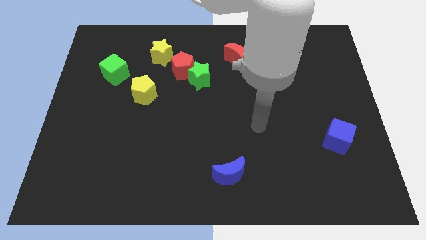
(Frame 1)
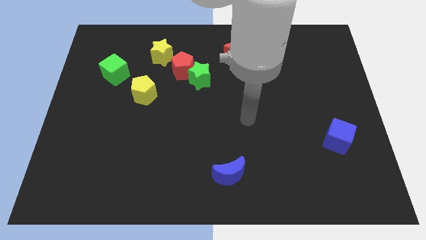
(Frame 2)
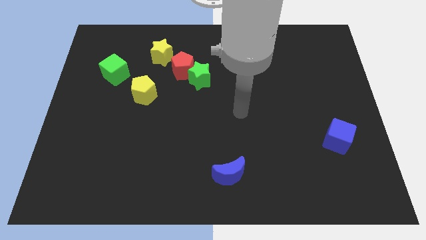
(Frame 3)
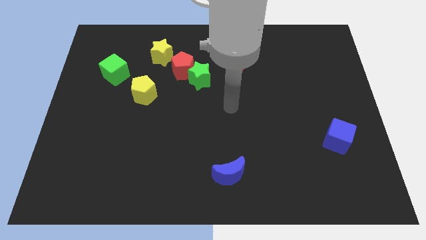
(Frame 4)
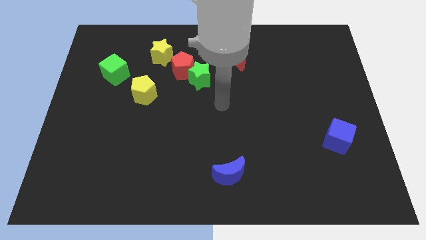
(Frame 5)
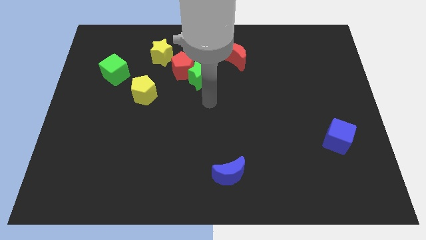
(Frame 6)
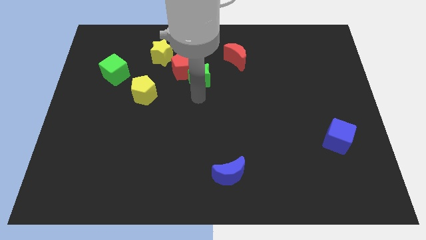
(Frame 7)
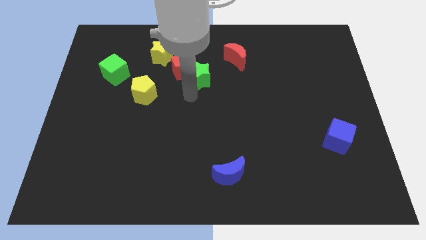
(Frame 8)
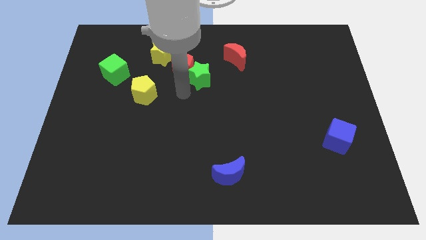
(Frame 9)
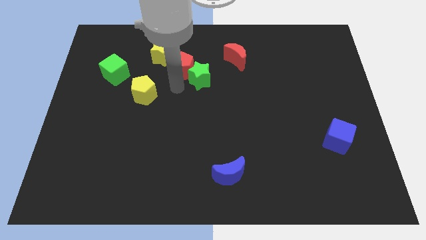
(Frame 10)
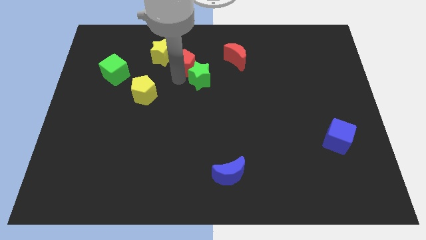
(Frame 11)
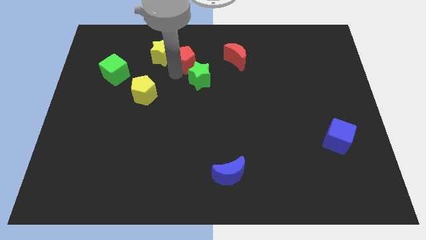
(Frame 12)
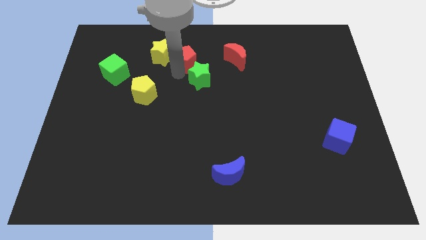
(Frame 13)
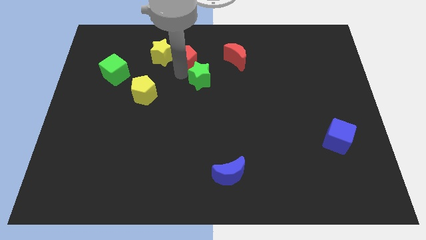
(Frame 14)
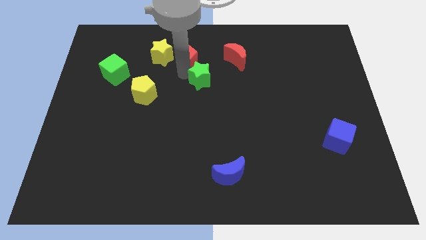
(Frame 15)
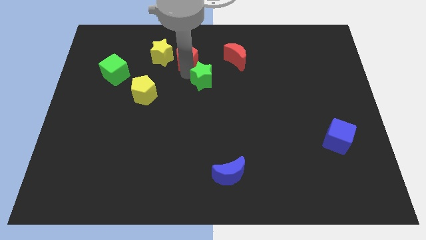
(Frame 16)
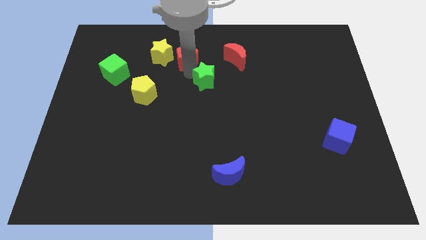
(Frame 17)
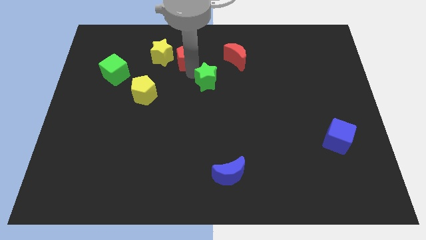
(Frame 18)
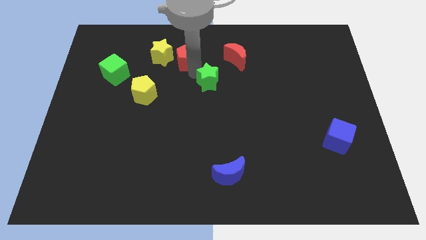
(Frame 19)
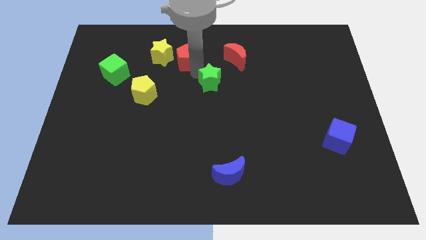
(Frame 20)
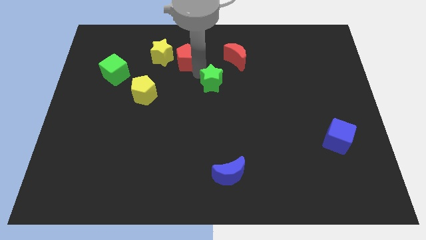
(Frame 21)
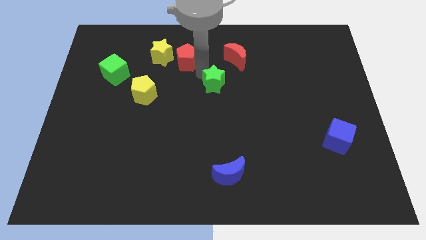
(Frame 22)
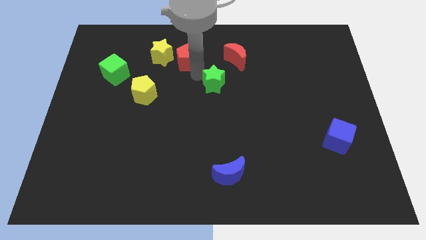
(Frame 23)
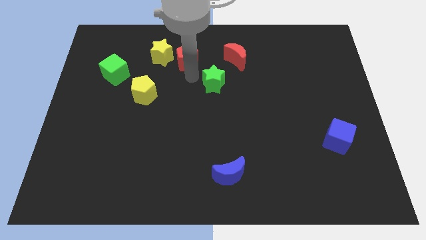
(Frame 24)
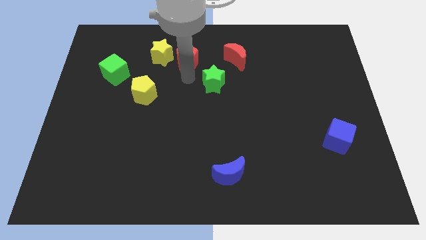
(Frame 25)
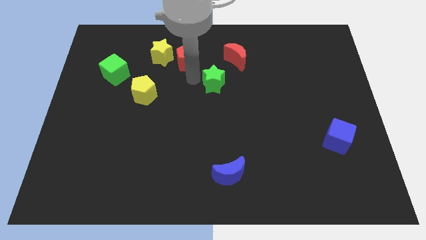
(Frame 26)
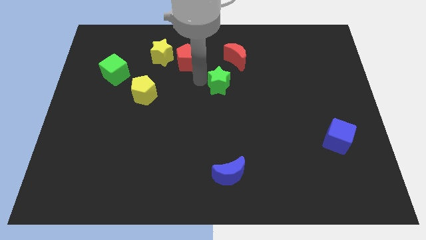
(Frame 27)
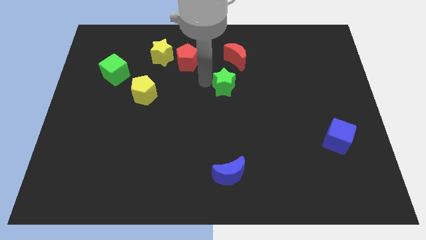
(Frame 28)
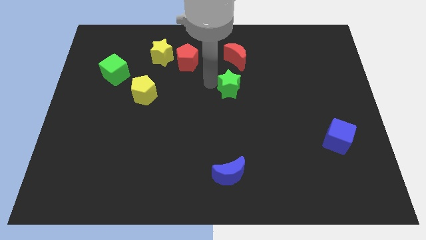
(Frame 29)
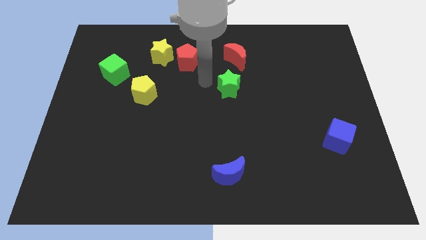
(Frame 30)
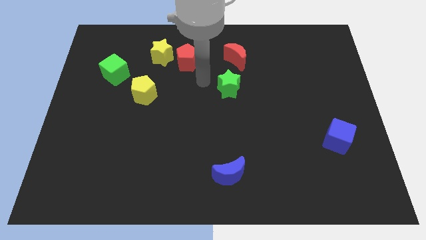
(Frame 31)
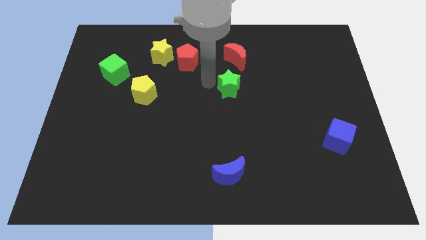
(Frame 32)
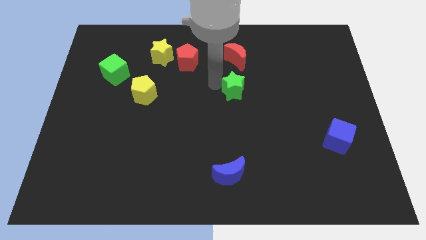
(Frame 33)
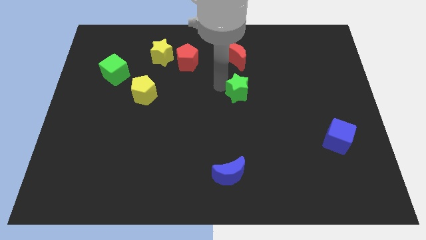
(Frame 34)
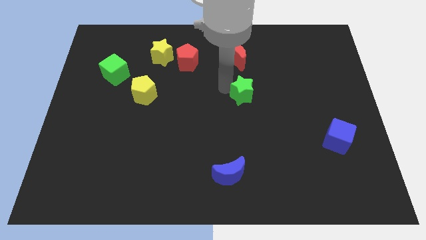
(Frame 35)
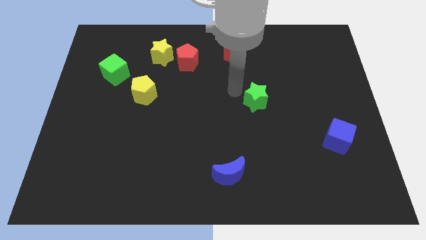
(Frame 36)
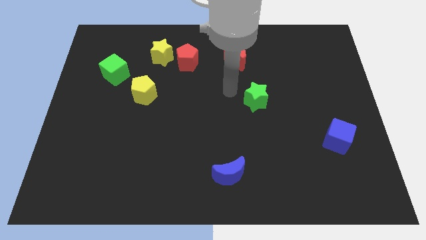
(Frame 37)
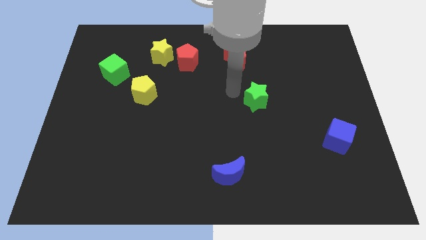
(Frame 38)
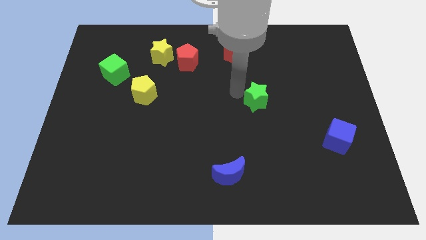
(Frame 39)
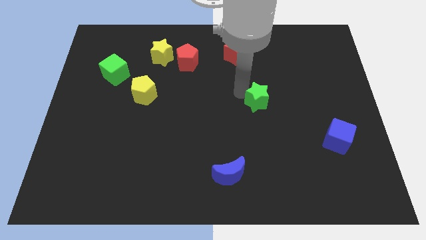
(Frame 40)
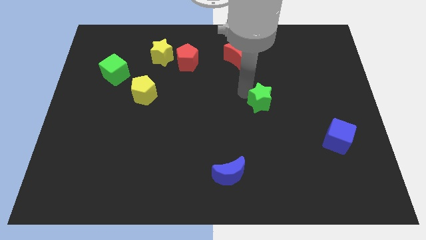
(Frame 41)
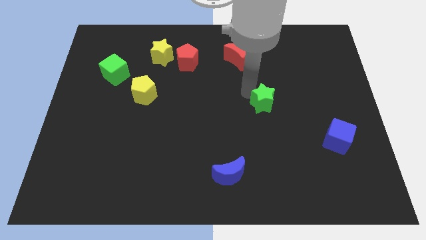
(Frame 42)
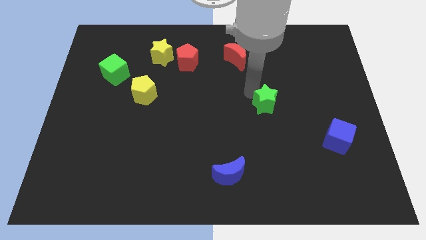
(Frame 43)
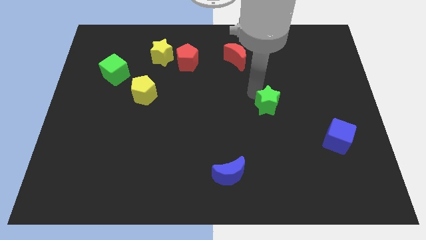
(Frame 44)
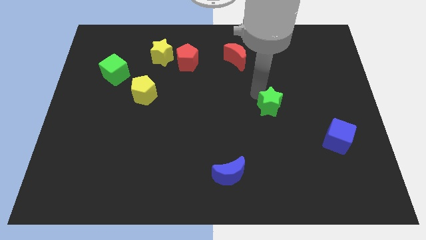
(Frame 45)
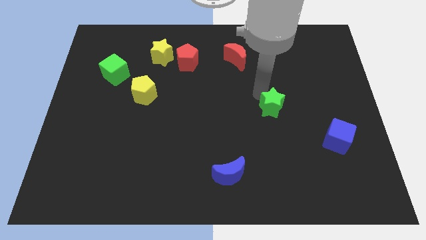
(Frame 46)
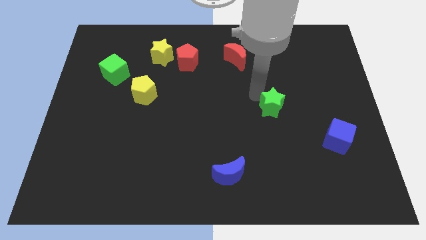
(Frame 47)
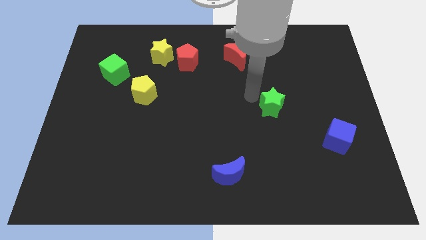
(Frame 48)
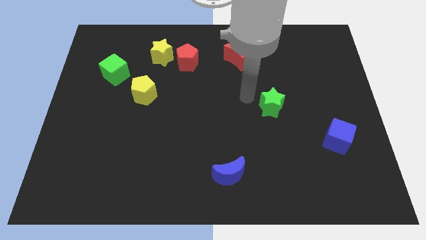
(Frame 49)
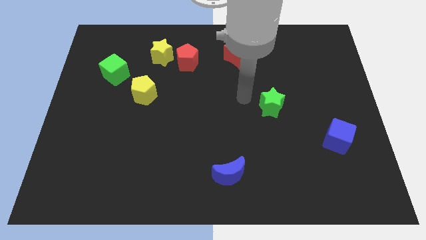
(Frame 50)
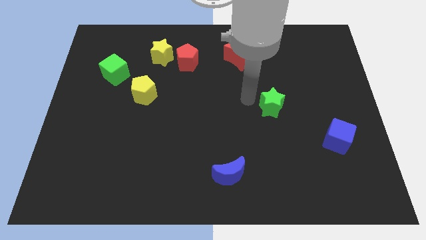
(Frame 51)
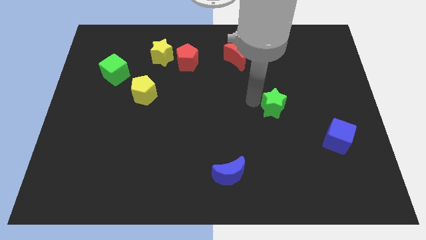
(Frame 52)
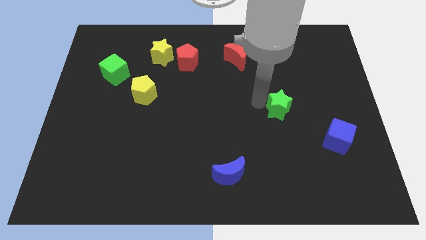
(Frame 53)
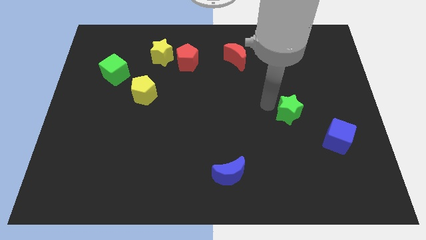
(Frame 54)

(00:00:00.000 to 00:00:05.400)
put the green star to the top left side of the blue cube

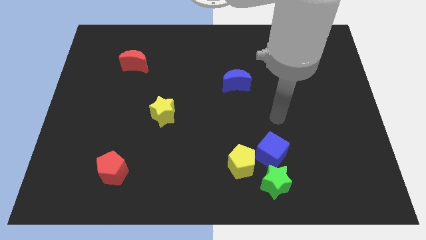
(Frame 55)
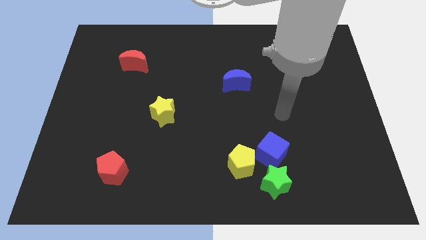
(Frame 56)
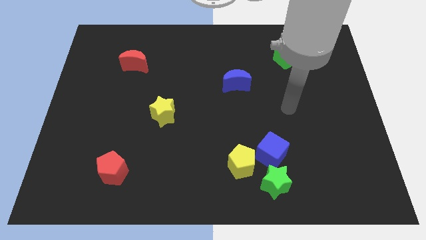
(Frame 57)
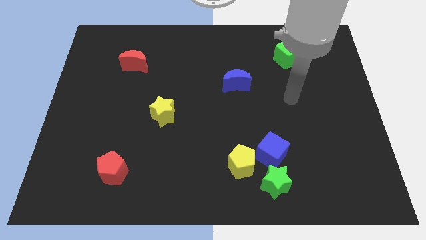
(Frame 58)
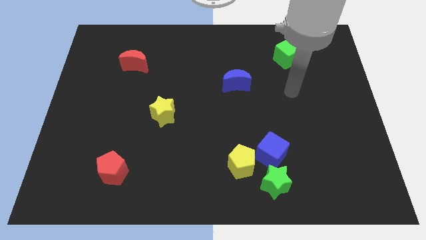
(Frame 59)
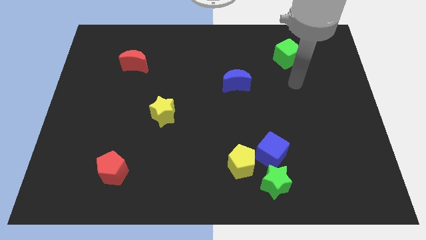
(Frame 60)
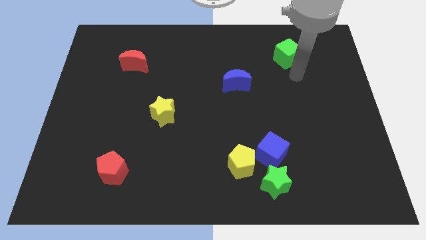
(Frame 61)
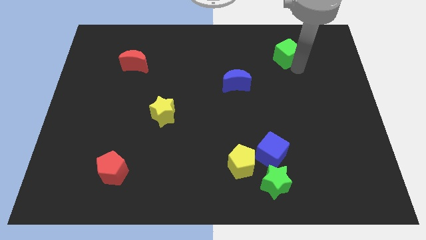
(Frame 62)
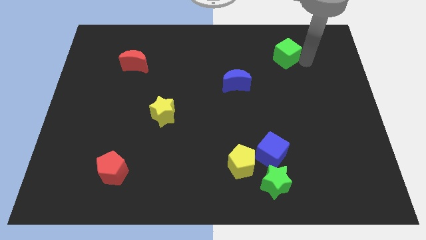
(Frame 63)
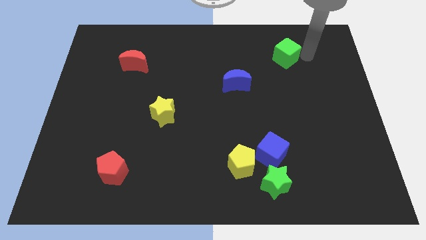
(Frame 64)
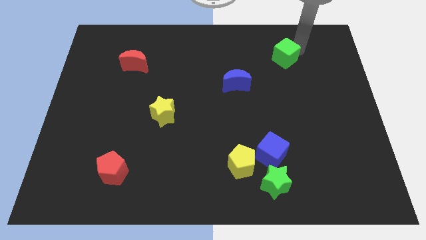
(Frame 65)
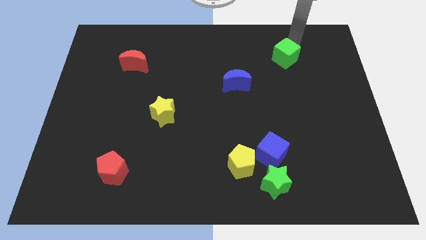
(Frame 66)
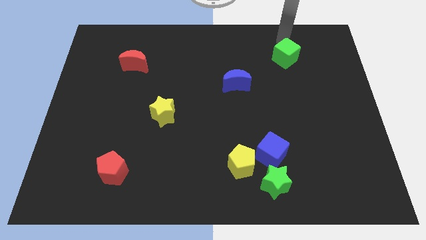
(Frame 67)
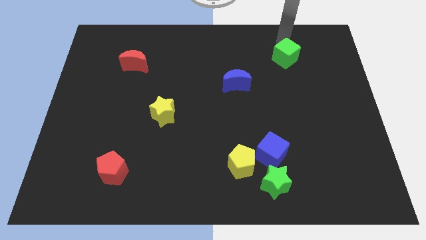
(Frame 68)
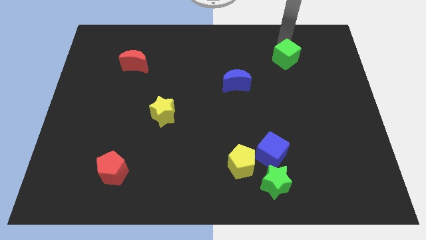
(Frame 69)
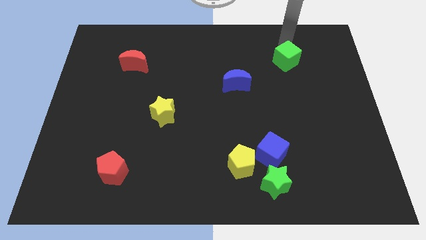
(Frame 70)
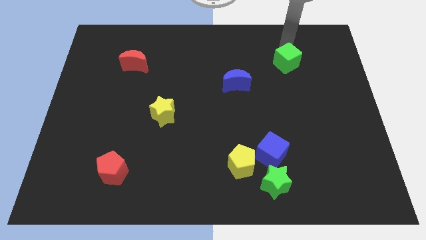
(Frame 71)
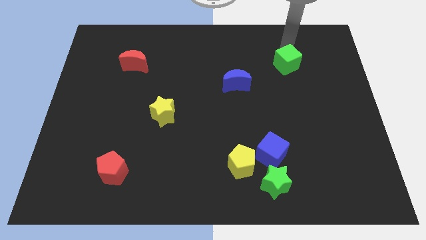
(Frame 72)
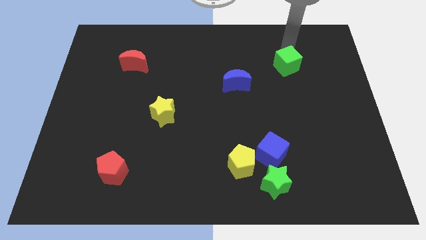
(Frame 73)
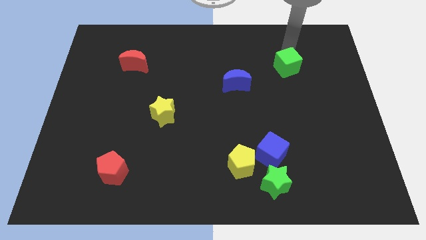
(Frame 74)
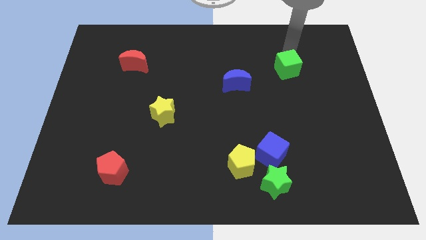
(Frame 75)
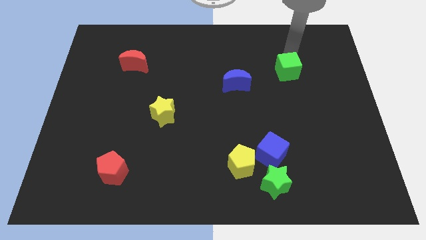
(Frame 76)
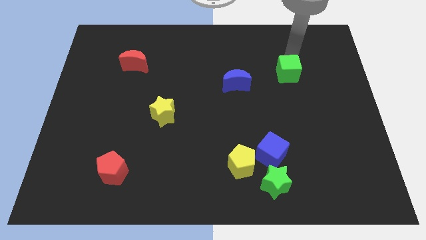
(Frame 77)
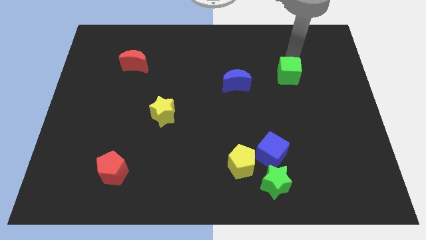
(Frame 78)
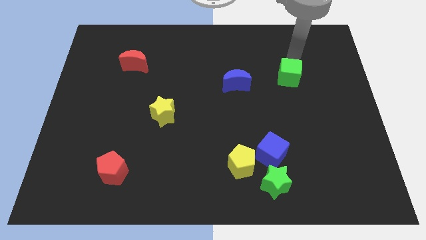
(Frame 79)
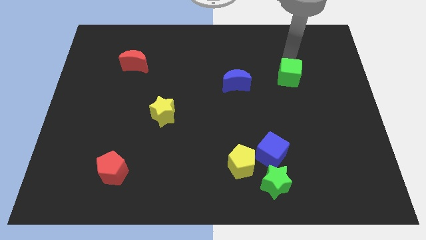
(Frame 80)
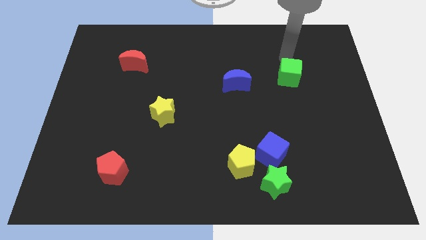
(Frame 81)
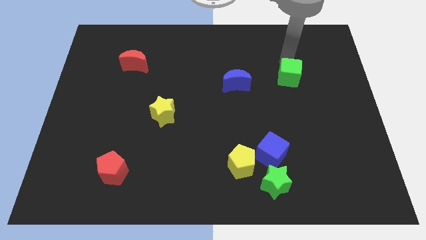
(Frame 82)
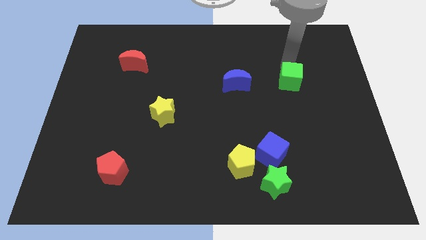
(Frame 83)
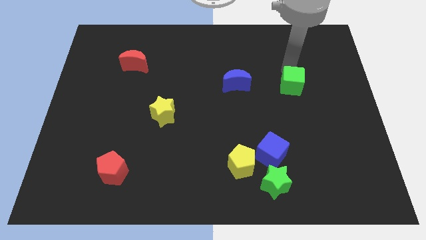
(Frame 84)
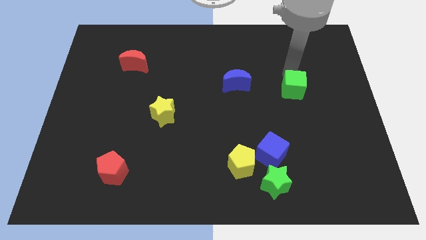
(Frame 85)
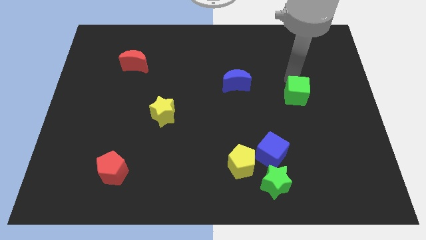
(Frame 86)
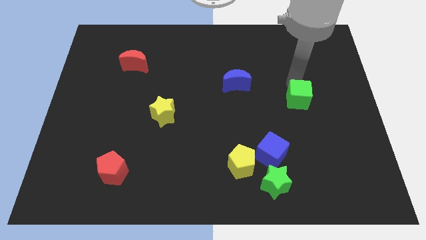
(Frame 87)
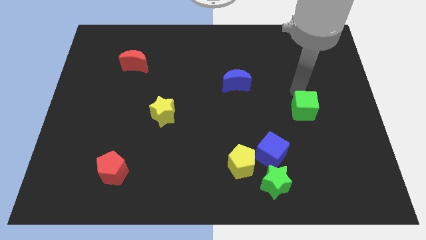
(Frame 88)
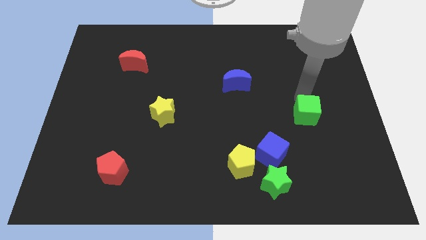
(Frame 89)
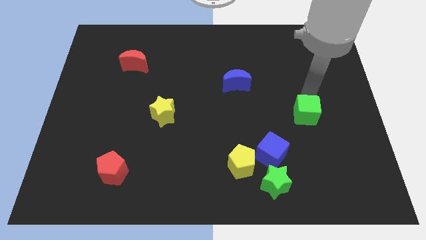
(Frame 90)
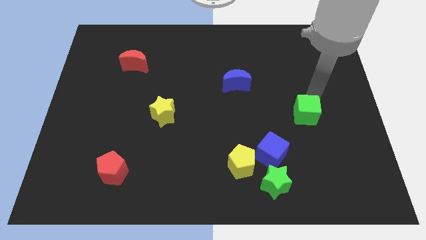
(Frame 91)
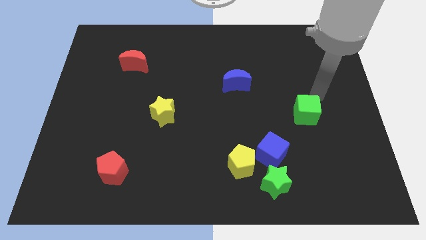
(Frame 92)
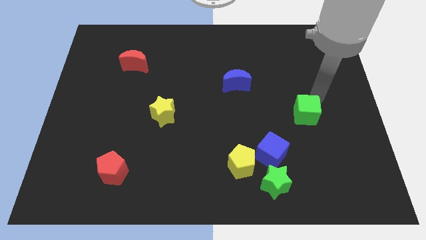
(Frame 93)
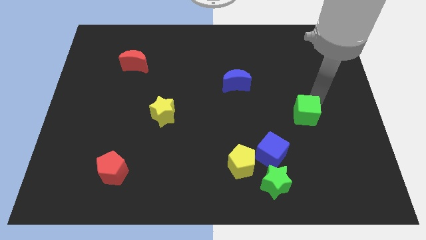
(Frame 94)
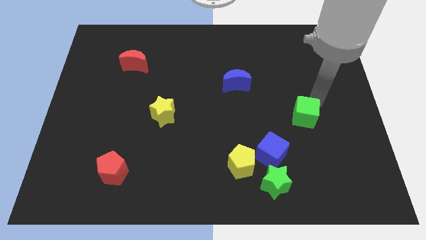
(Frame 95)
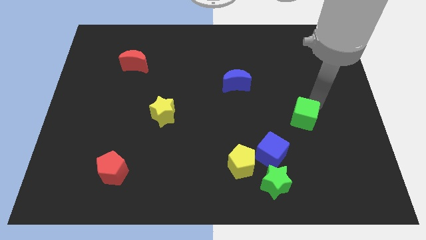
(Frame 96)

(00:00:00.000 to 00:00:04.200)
slide the green cube to the top right of the blue cube
